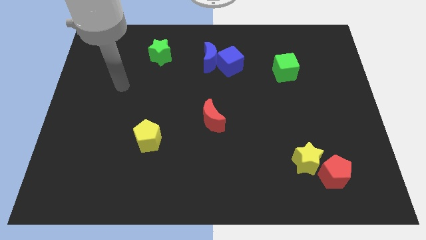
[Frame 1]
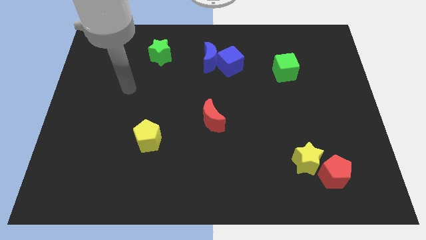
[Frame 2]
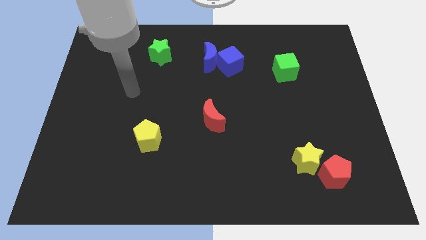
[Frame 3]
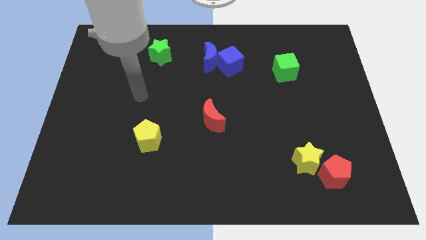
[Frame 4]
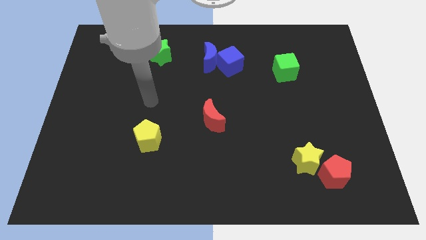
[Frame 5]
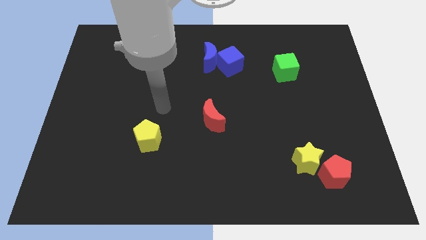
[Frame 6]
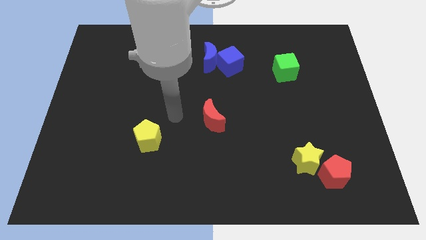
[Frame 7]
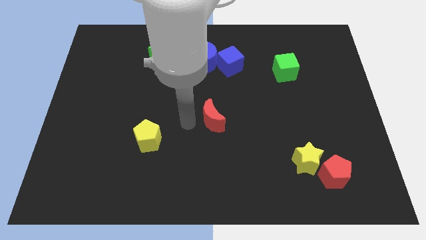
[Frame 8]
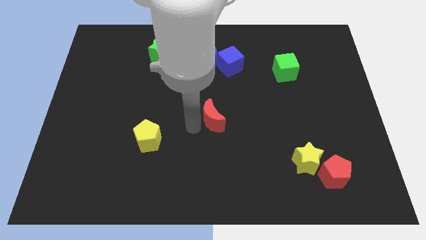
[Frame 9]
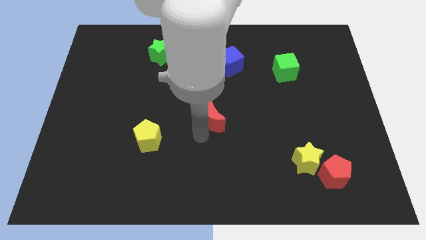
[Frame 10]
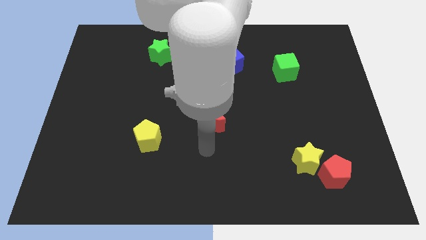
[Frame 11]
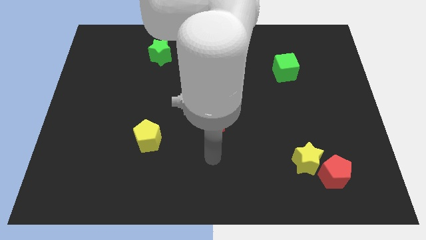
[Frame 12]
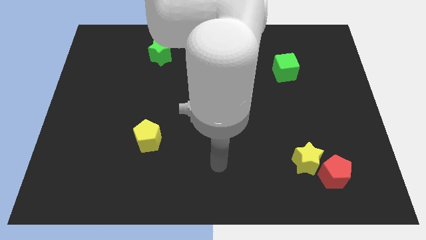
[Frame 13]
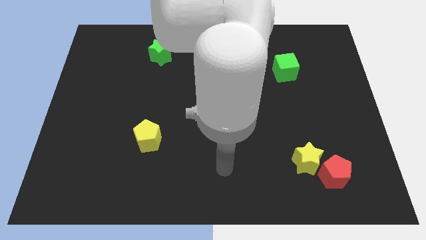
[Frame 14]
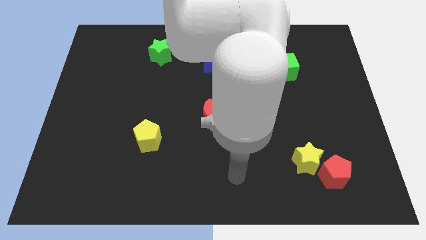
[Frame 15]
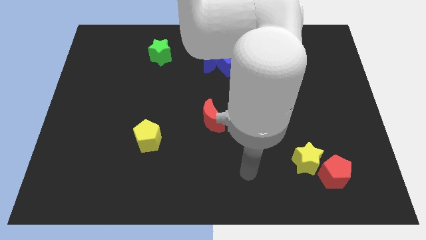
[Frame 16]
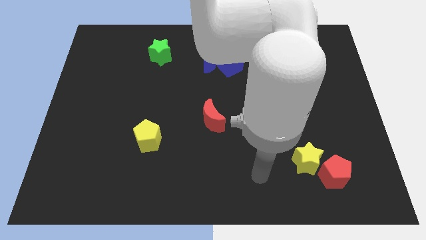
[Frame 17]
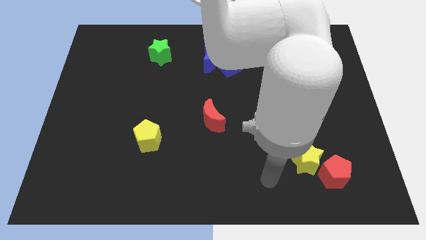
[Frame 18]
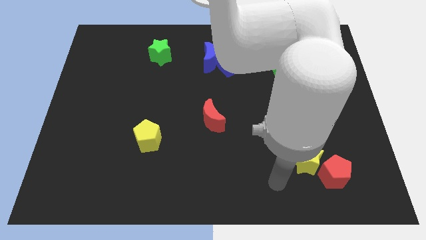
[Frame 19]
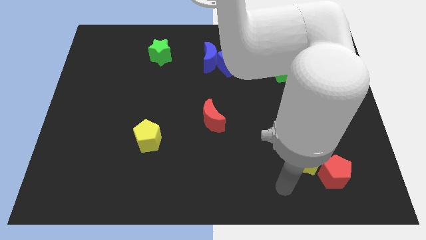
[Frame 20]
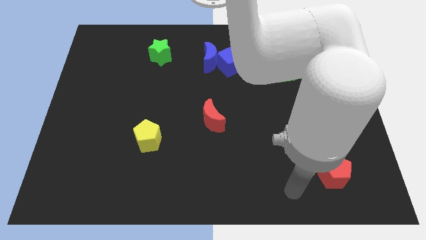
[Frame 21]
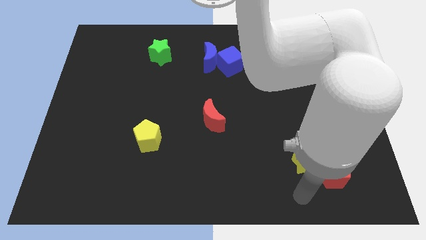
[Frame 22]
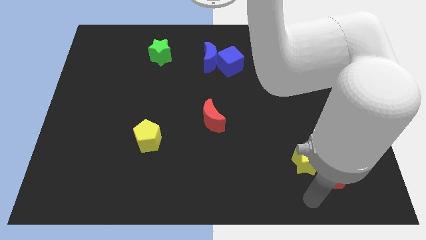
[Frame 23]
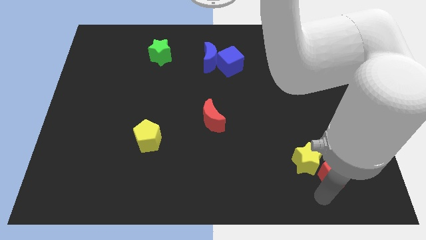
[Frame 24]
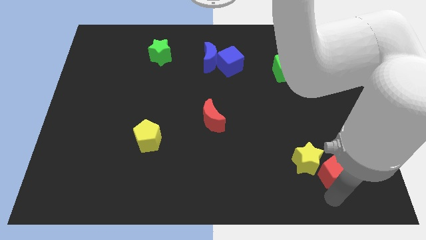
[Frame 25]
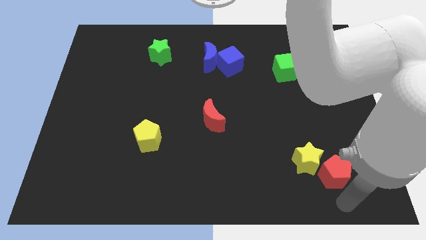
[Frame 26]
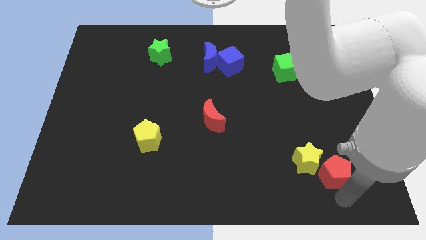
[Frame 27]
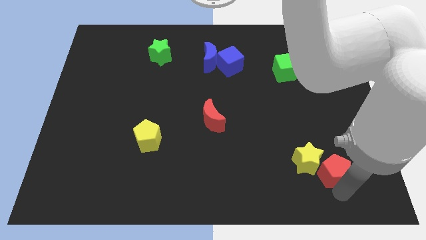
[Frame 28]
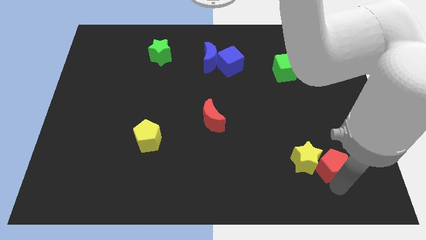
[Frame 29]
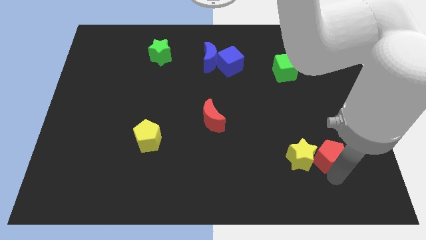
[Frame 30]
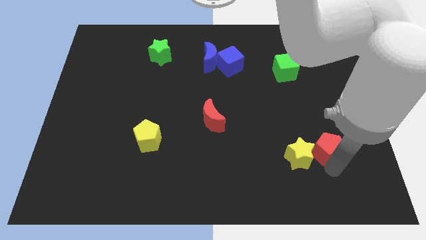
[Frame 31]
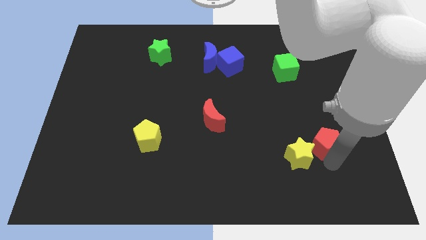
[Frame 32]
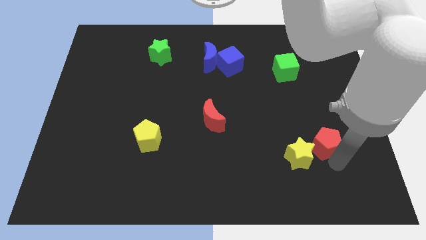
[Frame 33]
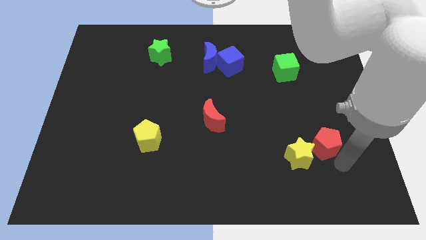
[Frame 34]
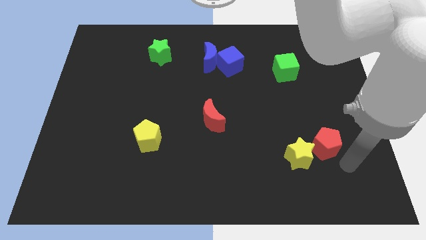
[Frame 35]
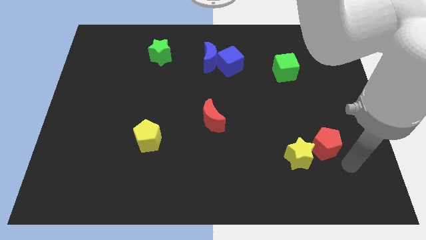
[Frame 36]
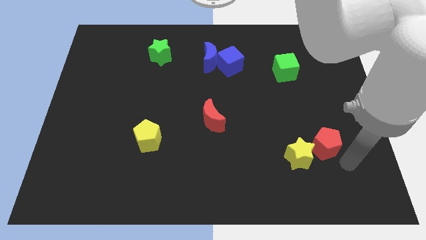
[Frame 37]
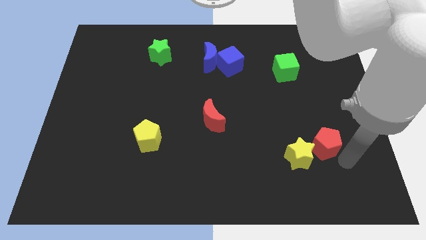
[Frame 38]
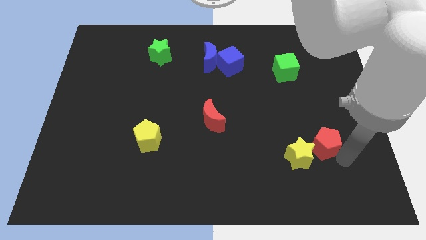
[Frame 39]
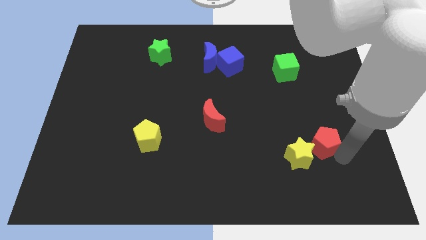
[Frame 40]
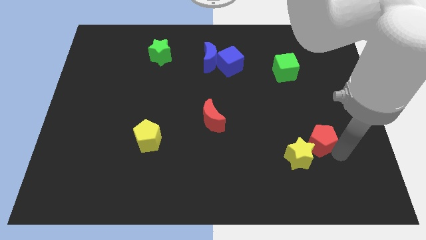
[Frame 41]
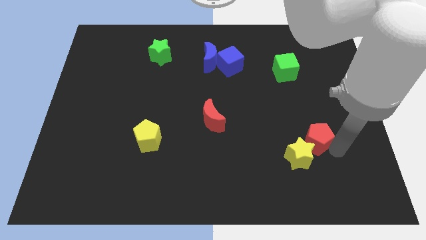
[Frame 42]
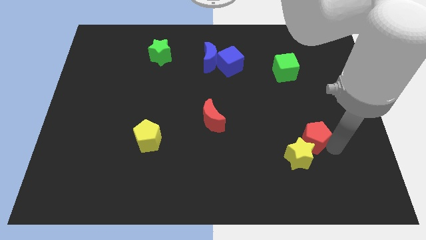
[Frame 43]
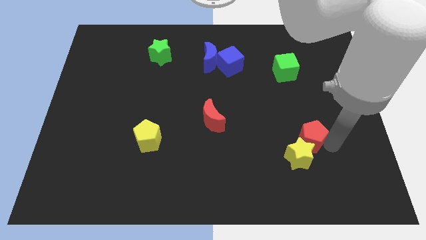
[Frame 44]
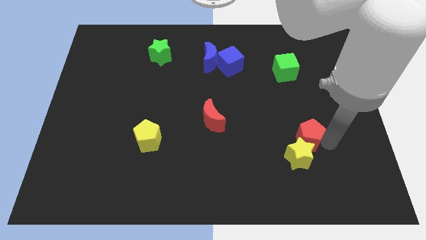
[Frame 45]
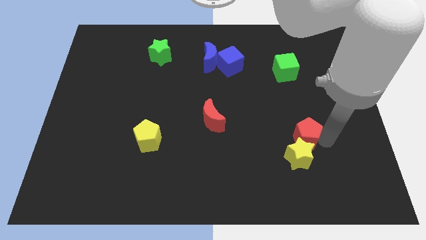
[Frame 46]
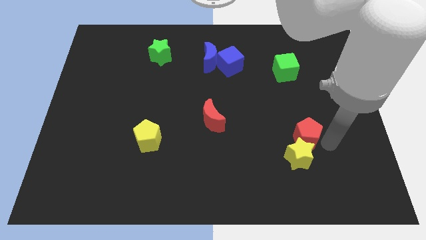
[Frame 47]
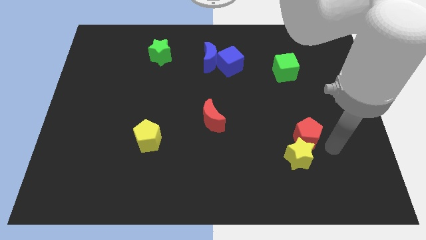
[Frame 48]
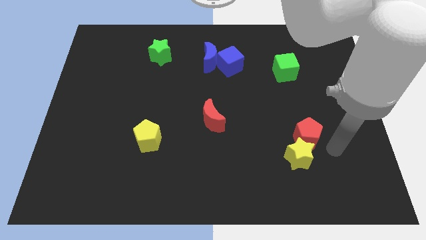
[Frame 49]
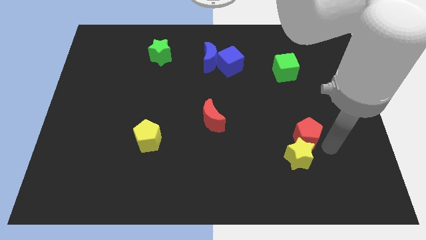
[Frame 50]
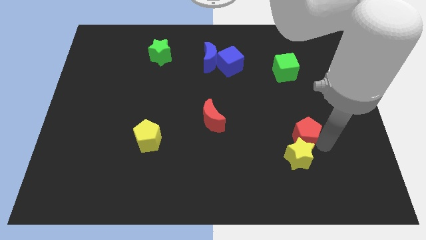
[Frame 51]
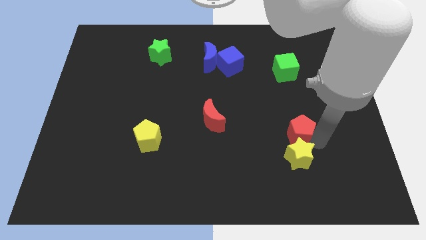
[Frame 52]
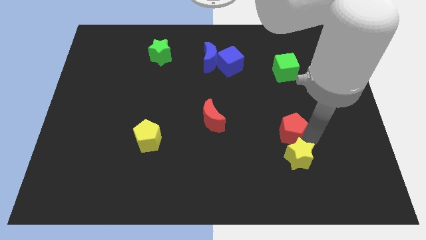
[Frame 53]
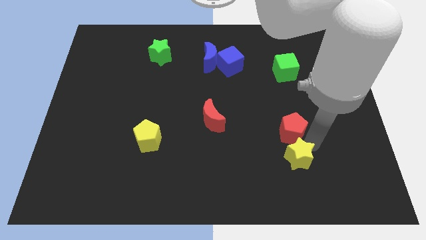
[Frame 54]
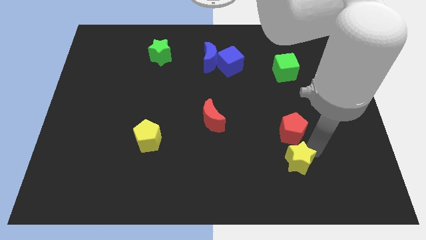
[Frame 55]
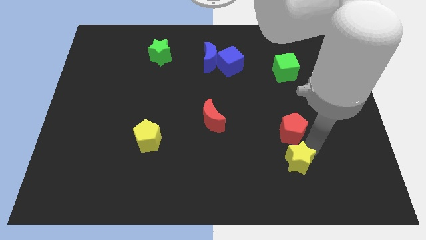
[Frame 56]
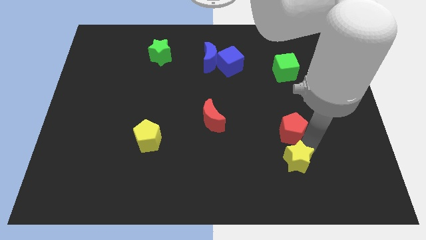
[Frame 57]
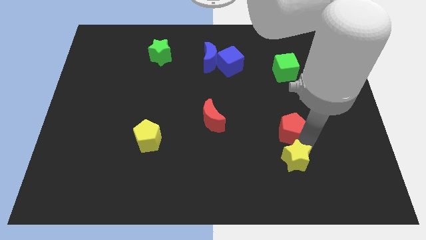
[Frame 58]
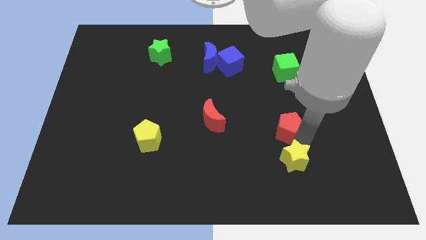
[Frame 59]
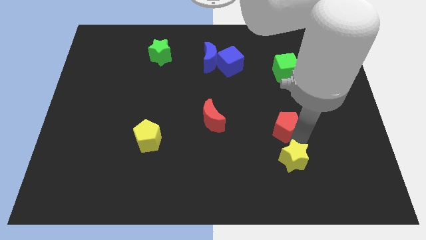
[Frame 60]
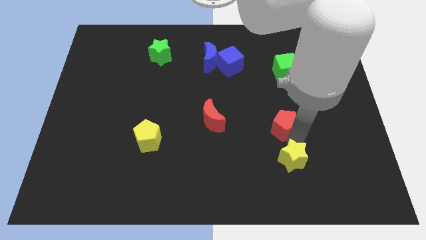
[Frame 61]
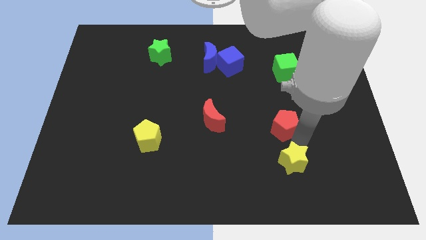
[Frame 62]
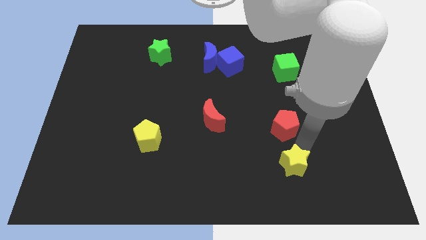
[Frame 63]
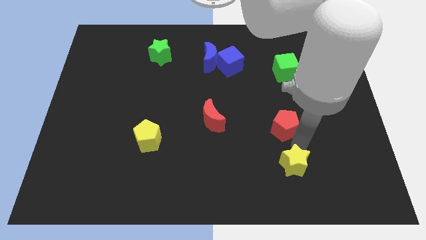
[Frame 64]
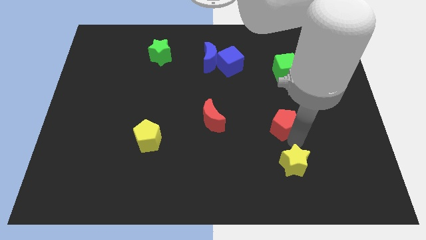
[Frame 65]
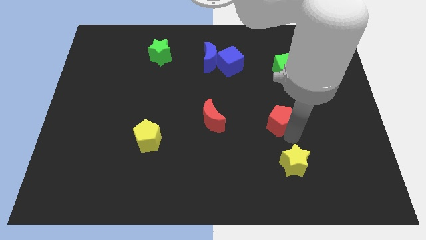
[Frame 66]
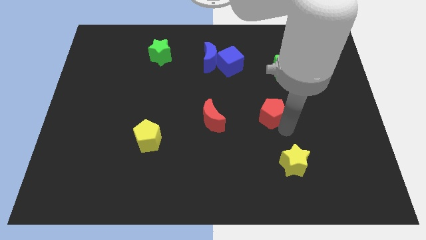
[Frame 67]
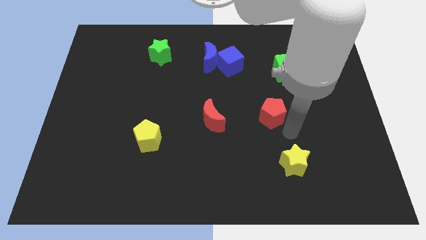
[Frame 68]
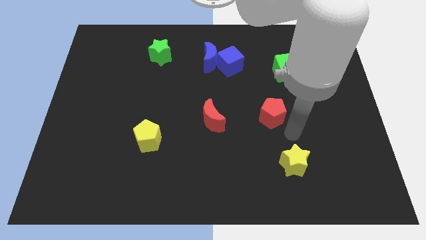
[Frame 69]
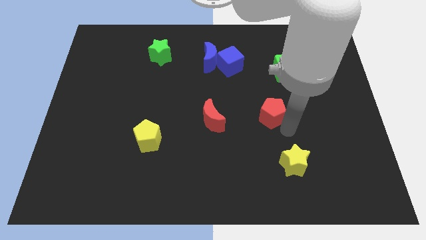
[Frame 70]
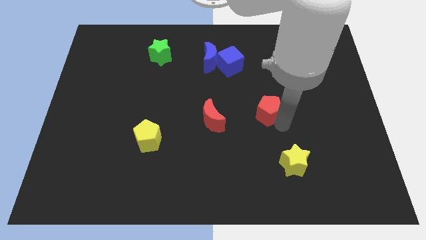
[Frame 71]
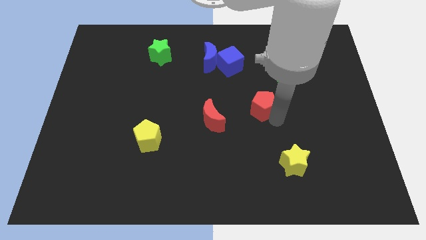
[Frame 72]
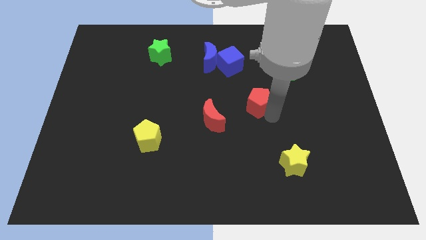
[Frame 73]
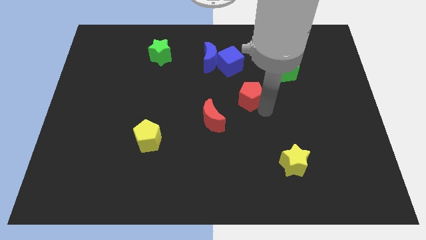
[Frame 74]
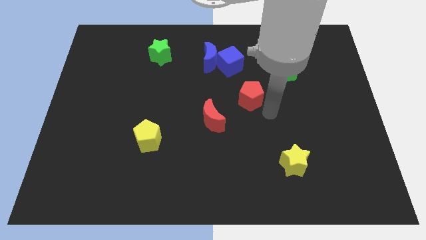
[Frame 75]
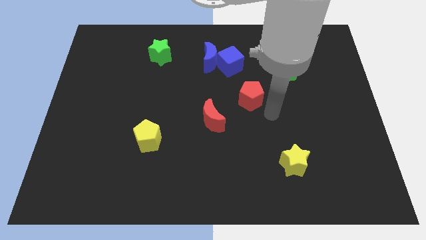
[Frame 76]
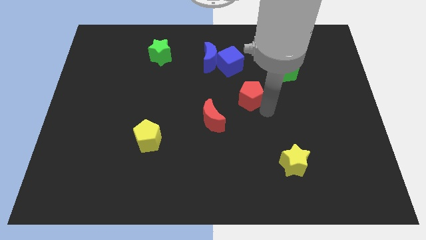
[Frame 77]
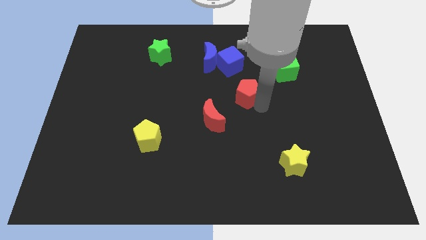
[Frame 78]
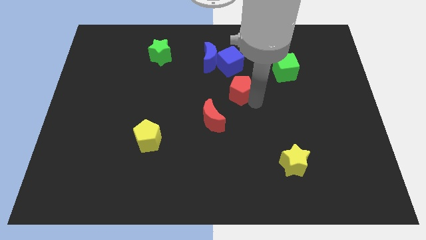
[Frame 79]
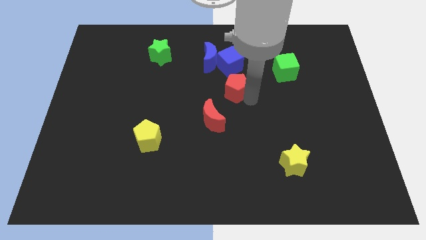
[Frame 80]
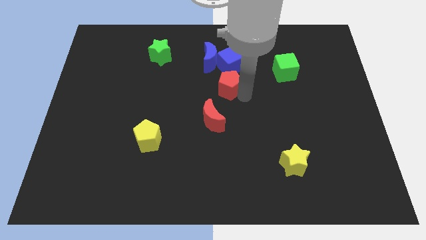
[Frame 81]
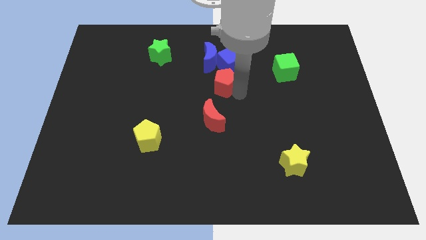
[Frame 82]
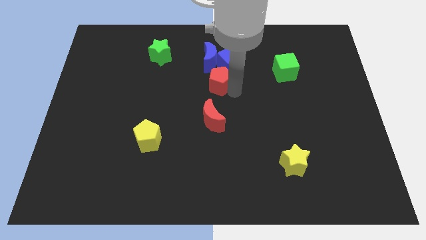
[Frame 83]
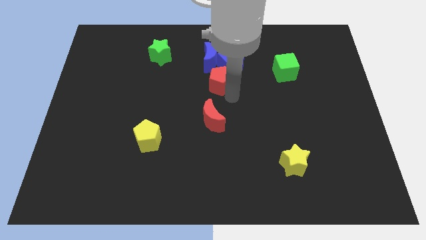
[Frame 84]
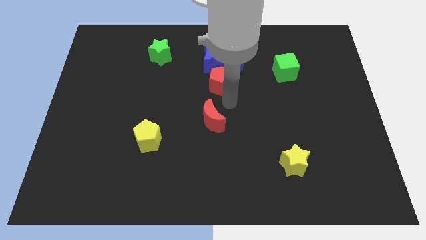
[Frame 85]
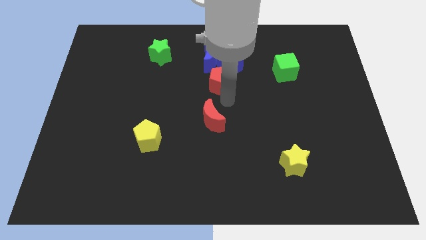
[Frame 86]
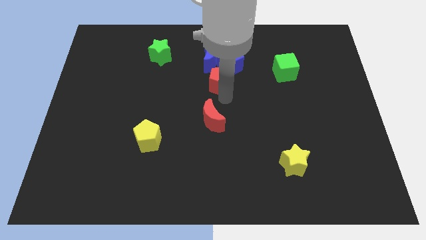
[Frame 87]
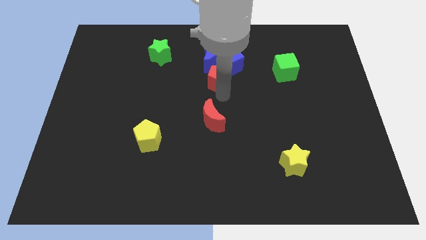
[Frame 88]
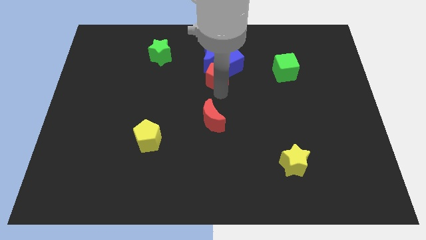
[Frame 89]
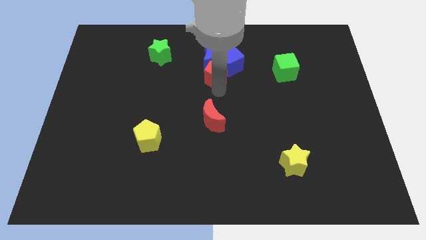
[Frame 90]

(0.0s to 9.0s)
put the red pentagon to the blue moon
